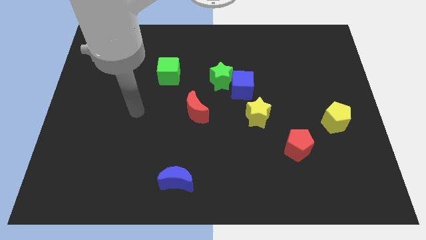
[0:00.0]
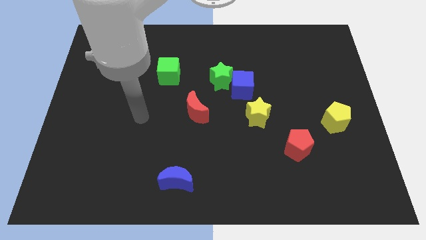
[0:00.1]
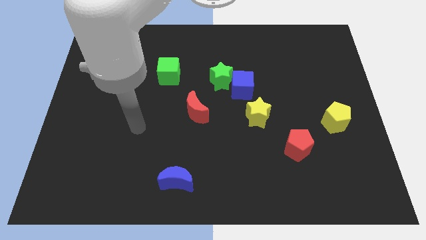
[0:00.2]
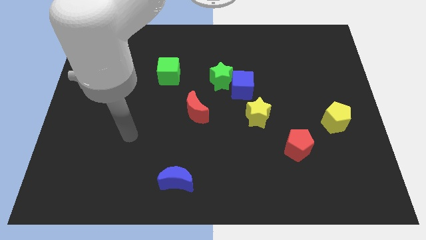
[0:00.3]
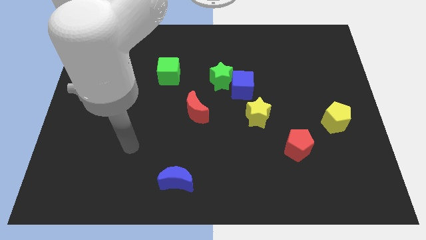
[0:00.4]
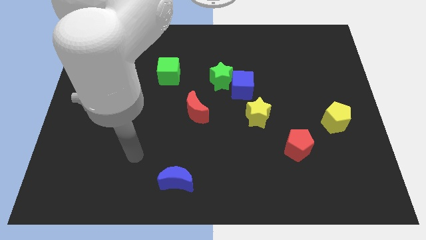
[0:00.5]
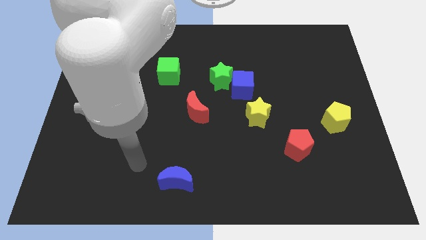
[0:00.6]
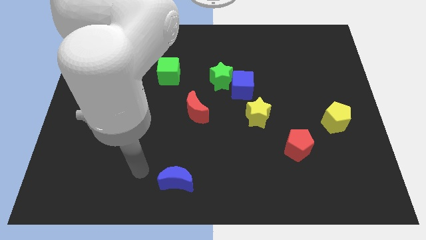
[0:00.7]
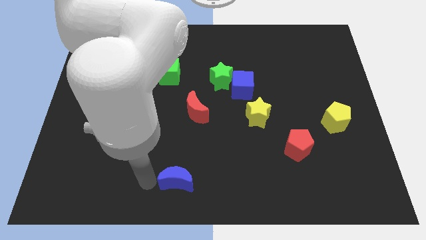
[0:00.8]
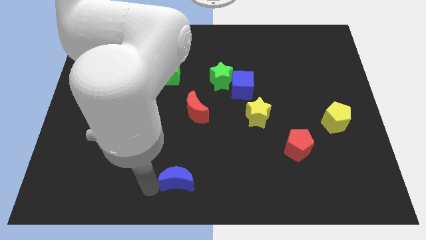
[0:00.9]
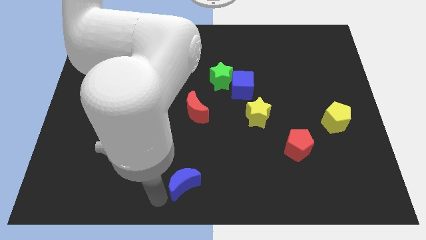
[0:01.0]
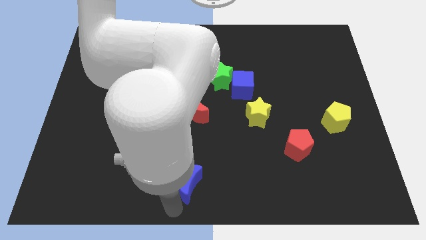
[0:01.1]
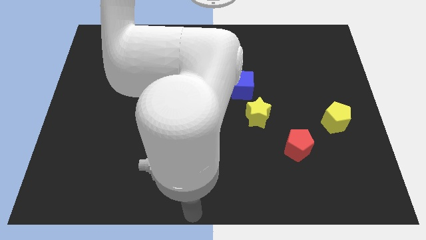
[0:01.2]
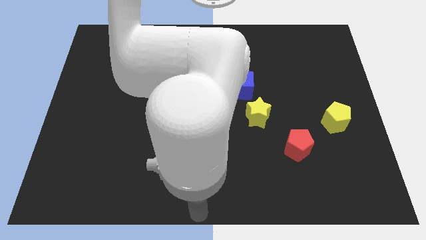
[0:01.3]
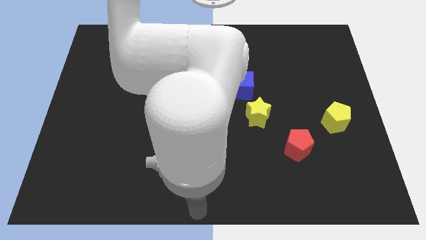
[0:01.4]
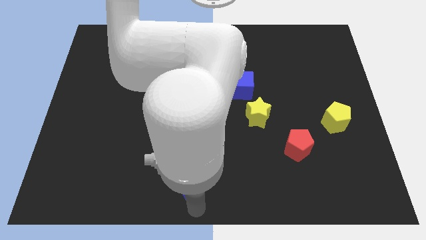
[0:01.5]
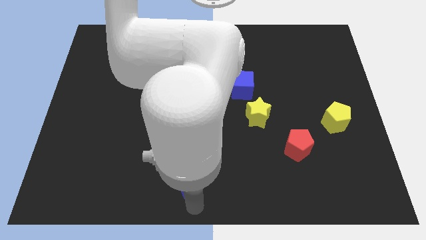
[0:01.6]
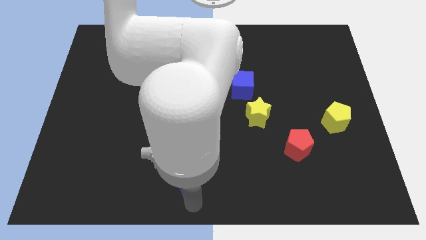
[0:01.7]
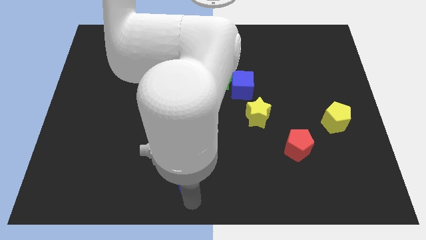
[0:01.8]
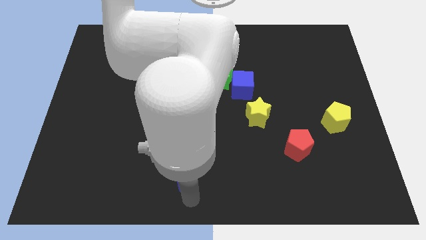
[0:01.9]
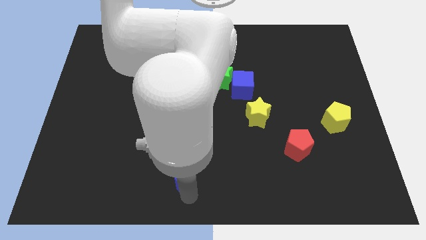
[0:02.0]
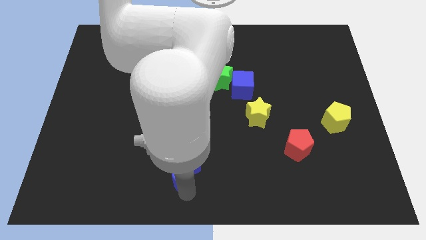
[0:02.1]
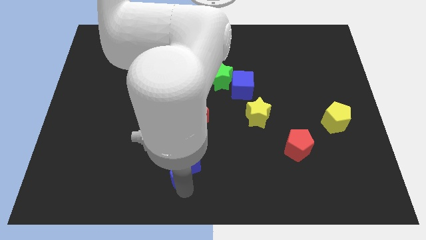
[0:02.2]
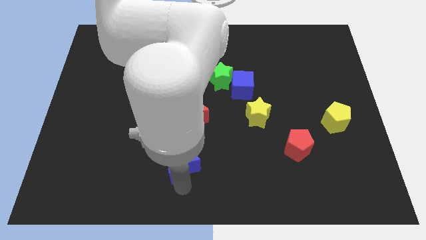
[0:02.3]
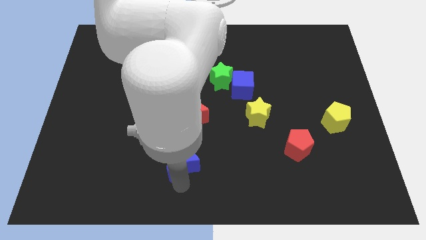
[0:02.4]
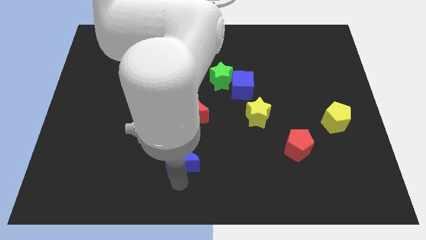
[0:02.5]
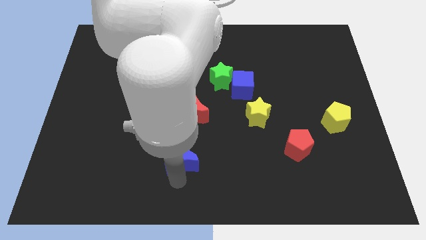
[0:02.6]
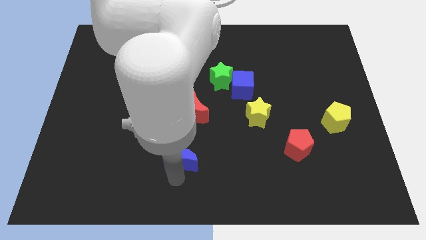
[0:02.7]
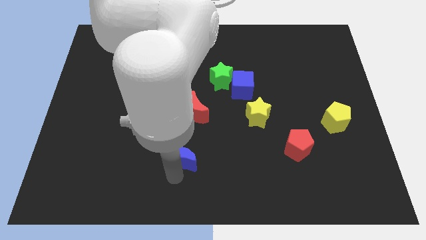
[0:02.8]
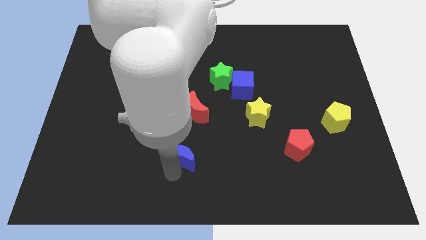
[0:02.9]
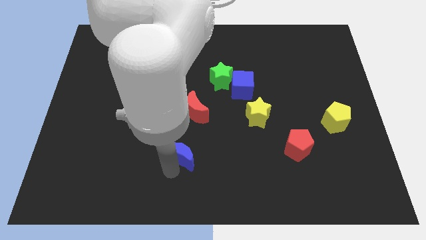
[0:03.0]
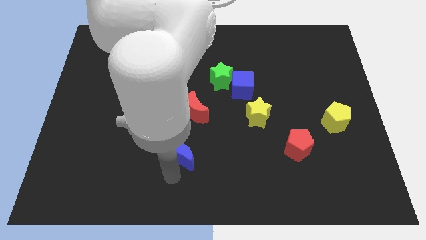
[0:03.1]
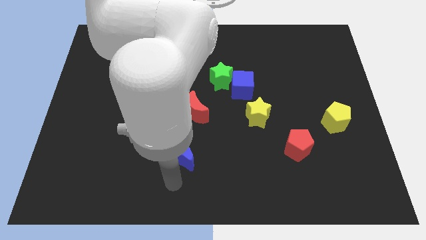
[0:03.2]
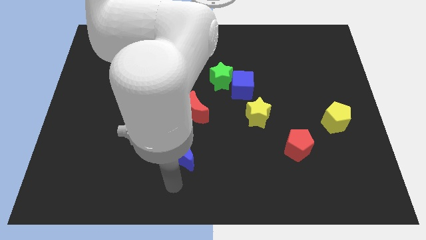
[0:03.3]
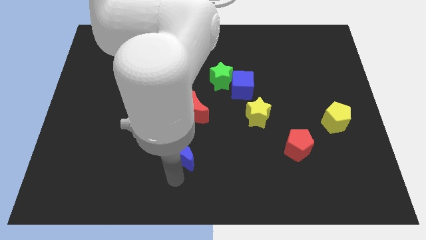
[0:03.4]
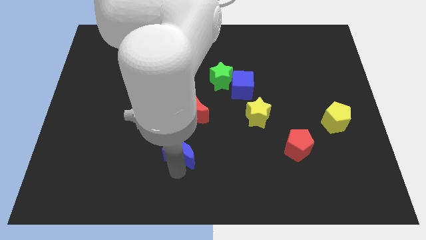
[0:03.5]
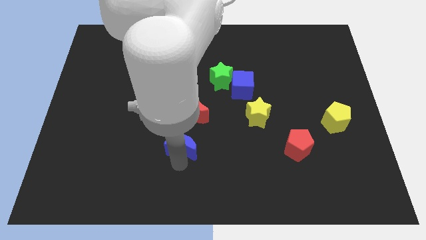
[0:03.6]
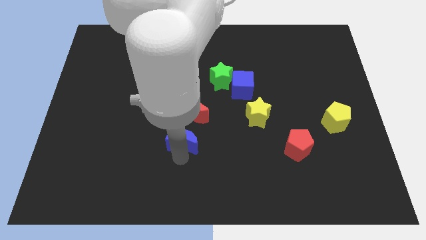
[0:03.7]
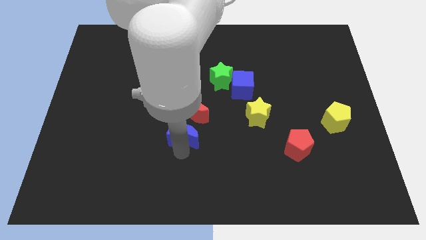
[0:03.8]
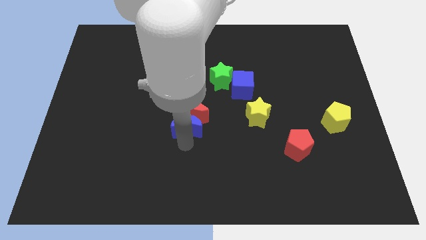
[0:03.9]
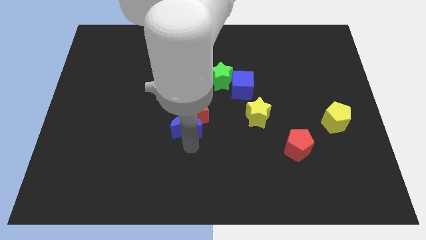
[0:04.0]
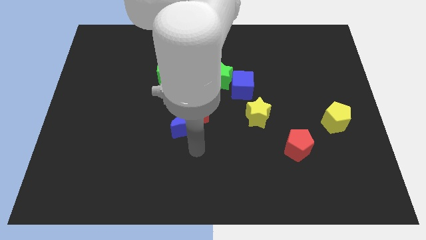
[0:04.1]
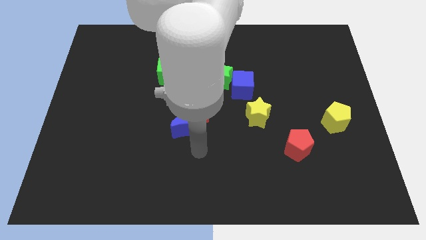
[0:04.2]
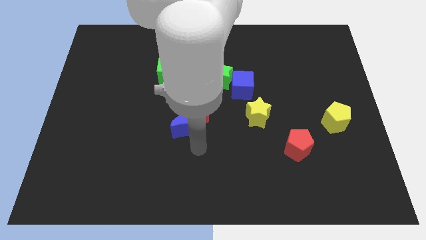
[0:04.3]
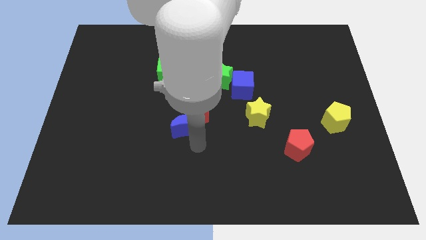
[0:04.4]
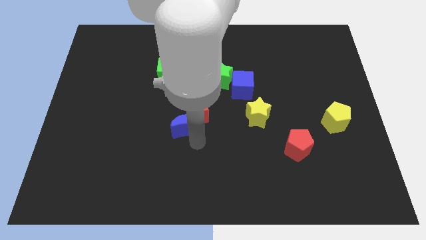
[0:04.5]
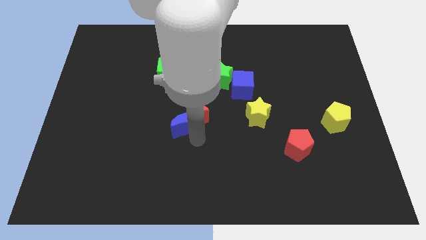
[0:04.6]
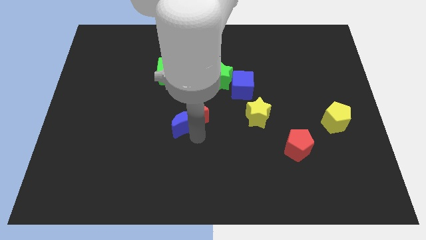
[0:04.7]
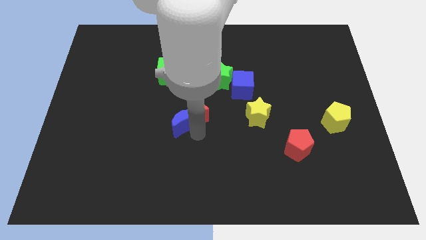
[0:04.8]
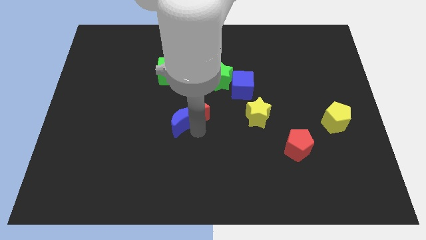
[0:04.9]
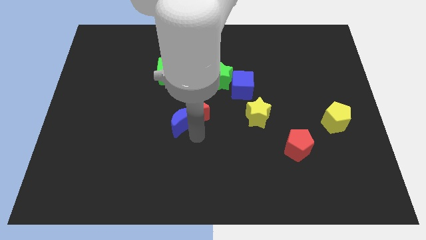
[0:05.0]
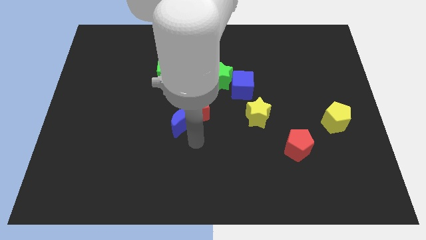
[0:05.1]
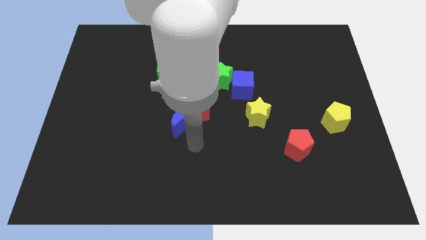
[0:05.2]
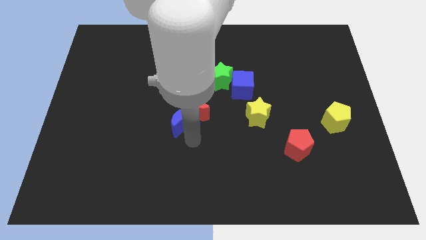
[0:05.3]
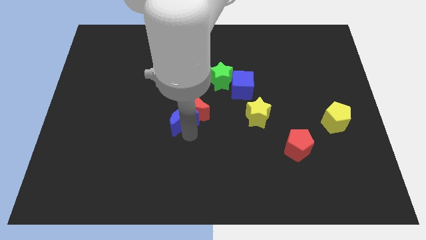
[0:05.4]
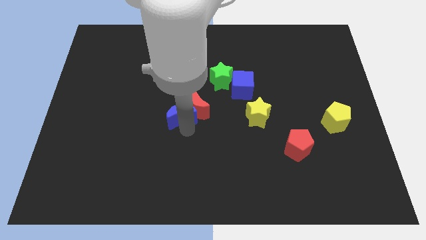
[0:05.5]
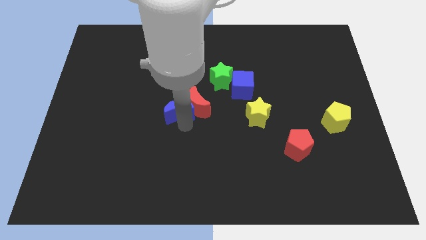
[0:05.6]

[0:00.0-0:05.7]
move the blue moon diagonally up and to the left of the red moon

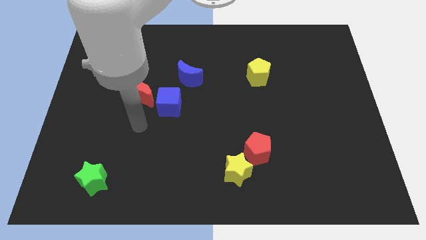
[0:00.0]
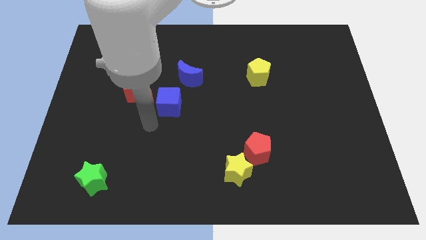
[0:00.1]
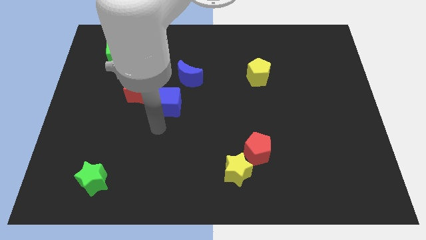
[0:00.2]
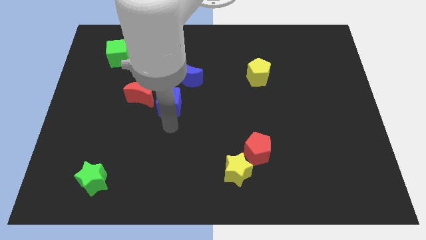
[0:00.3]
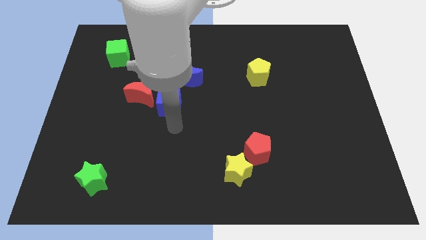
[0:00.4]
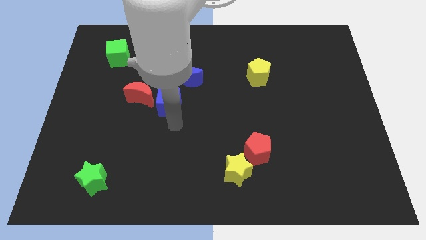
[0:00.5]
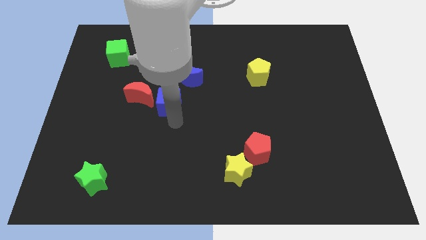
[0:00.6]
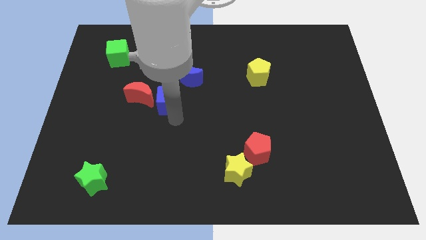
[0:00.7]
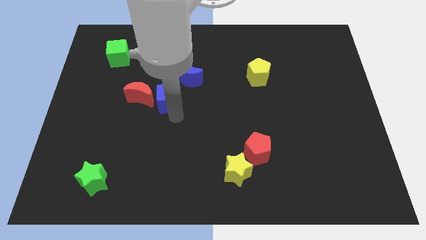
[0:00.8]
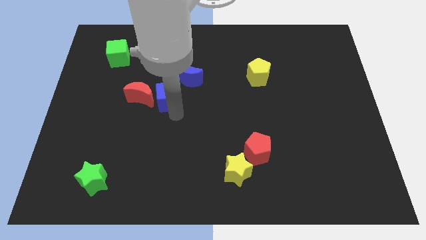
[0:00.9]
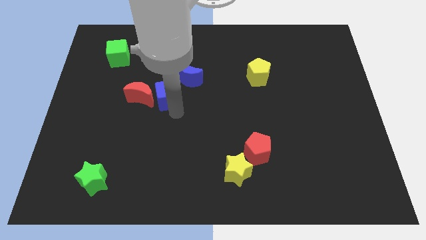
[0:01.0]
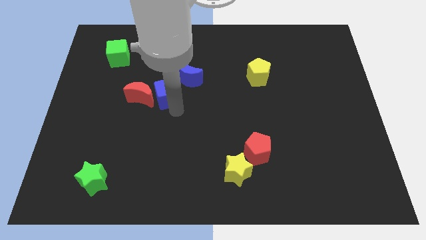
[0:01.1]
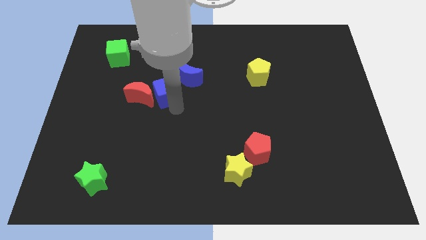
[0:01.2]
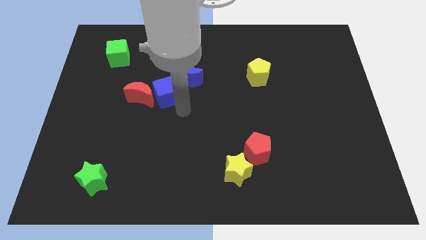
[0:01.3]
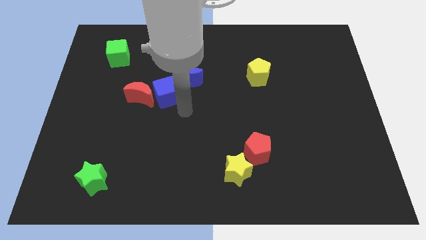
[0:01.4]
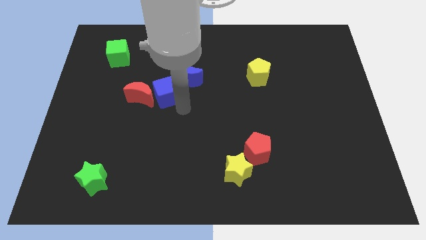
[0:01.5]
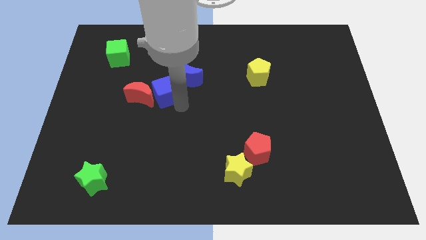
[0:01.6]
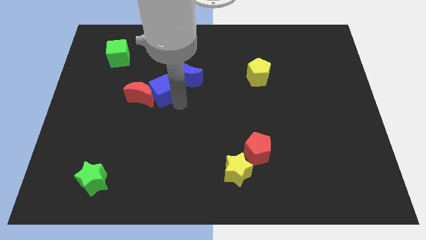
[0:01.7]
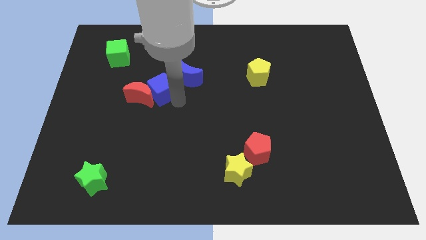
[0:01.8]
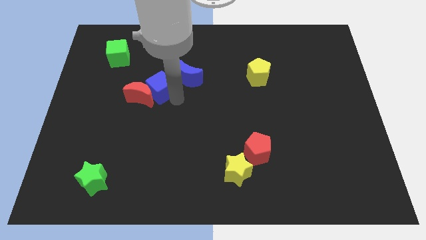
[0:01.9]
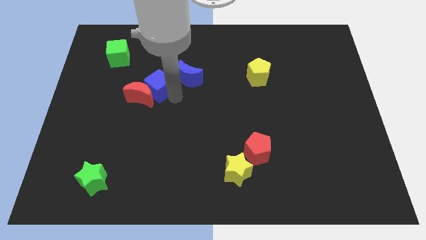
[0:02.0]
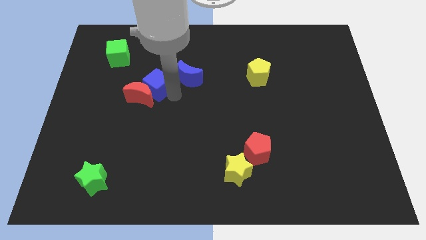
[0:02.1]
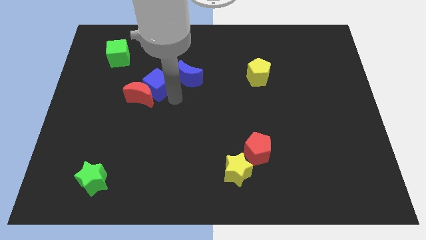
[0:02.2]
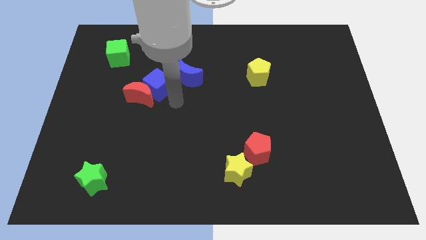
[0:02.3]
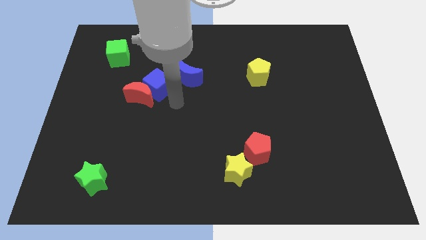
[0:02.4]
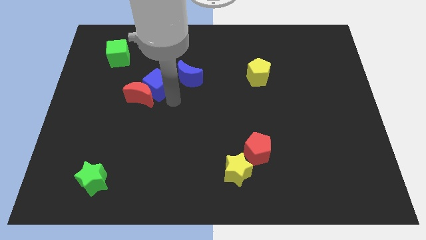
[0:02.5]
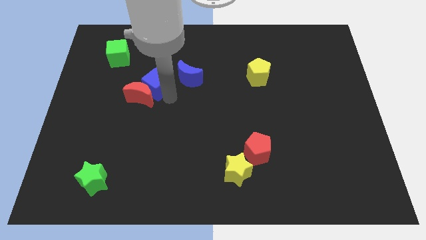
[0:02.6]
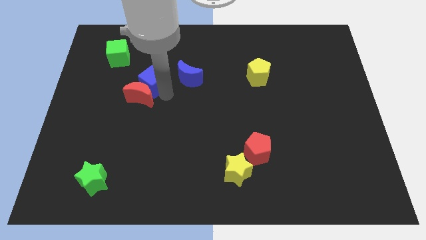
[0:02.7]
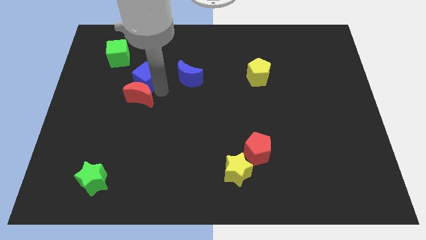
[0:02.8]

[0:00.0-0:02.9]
put the blue cube diagonally down and to the right of the green cube
